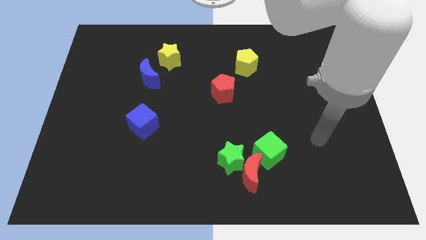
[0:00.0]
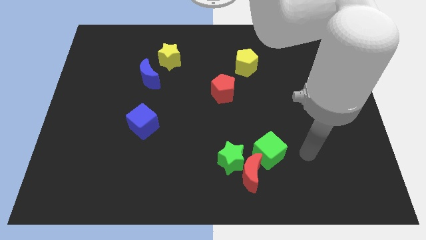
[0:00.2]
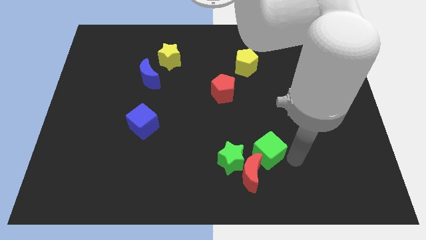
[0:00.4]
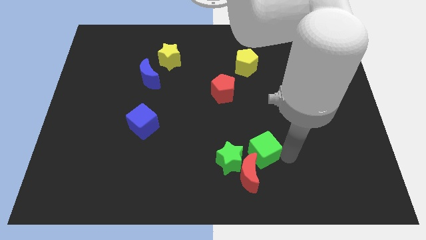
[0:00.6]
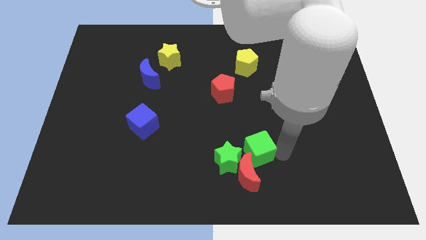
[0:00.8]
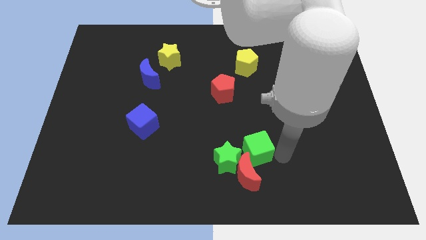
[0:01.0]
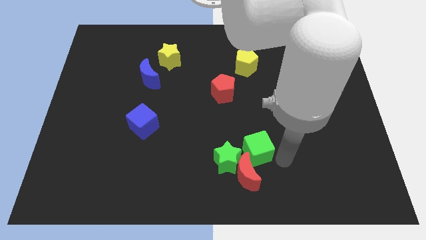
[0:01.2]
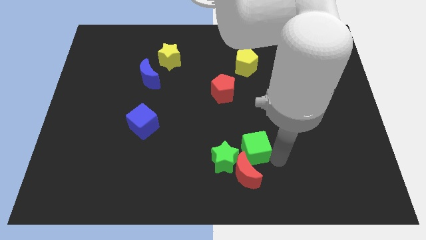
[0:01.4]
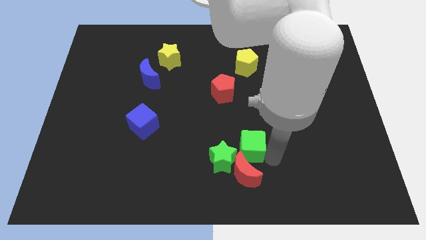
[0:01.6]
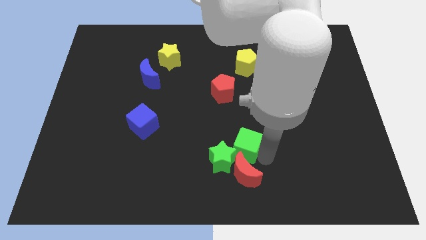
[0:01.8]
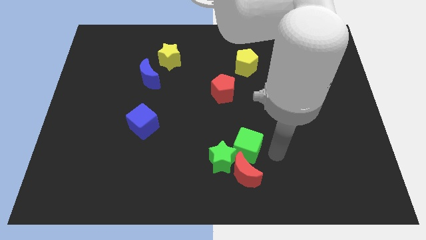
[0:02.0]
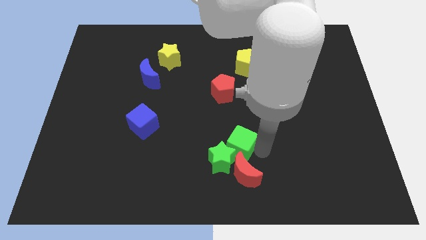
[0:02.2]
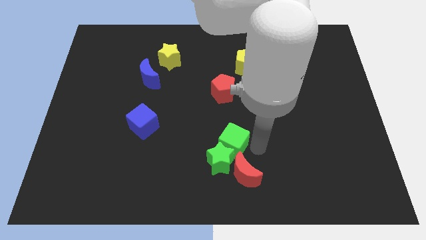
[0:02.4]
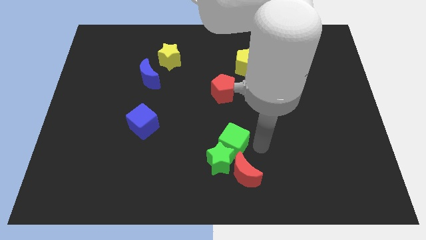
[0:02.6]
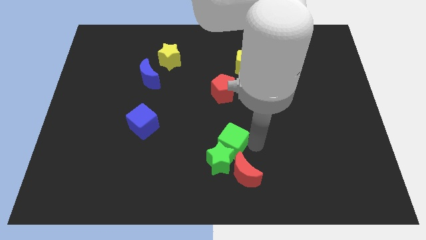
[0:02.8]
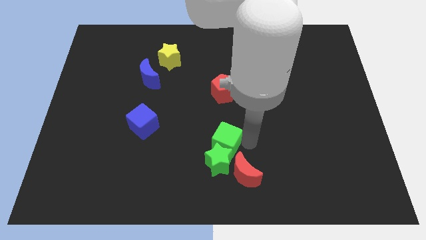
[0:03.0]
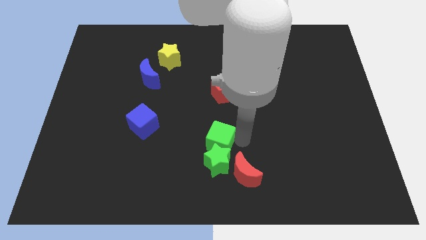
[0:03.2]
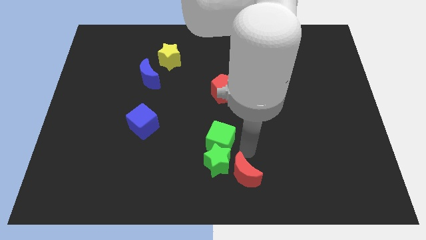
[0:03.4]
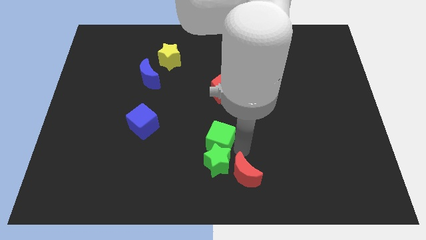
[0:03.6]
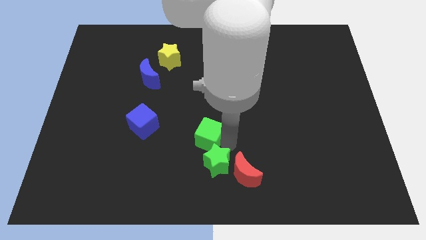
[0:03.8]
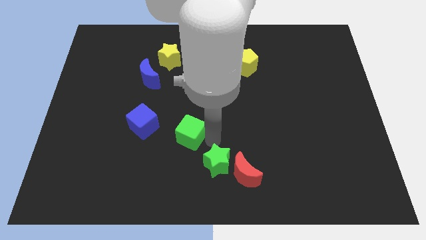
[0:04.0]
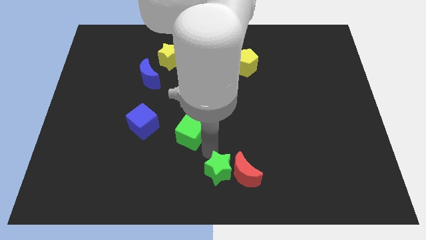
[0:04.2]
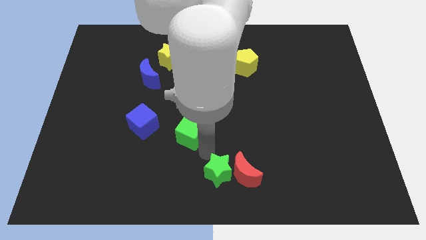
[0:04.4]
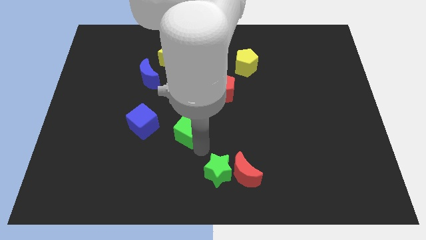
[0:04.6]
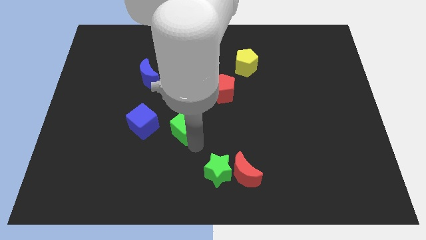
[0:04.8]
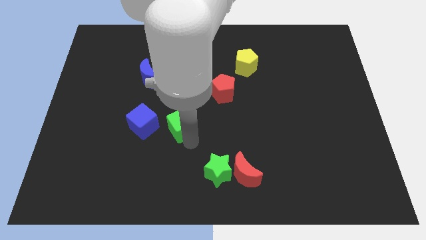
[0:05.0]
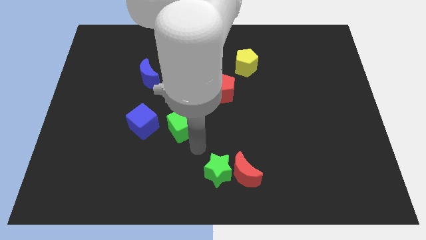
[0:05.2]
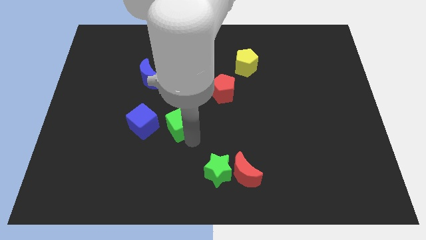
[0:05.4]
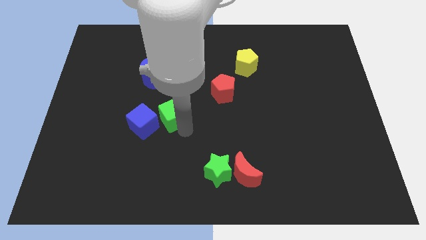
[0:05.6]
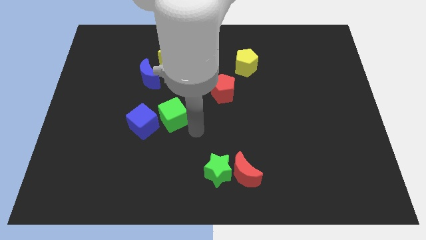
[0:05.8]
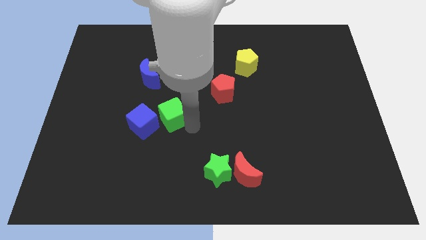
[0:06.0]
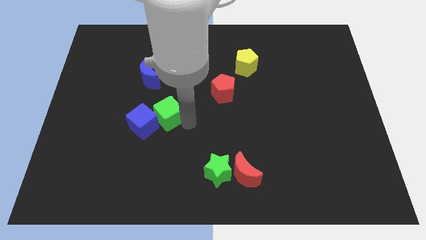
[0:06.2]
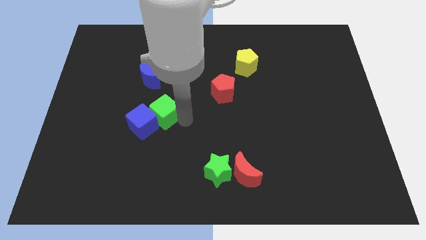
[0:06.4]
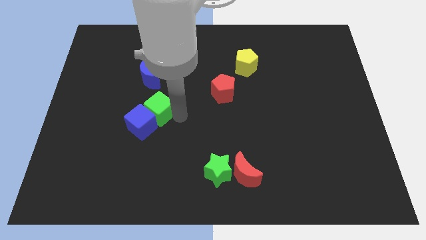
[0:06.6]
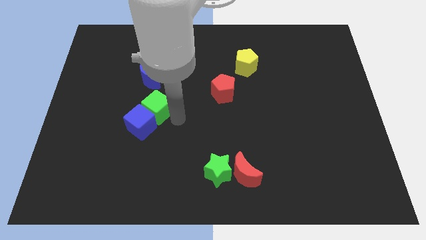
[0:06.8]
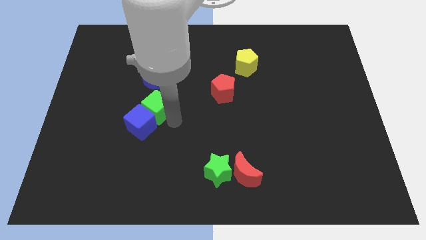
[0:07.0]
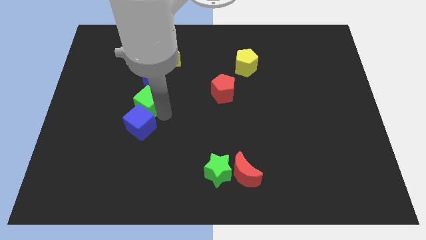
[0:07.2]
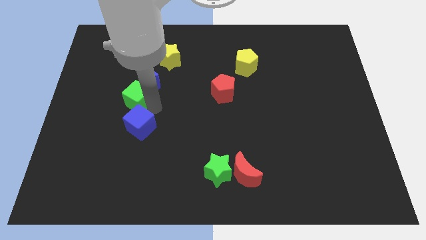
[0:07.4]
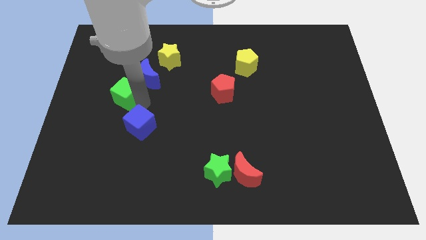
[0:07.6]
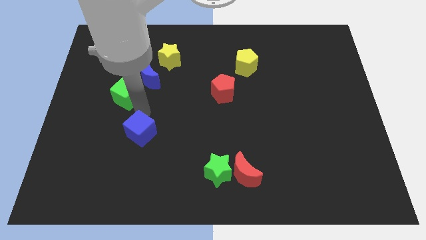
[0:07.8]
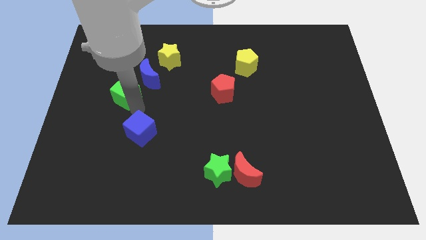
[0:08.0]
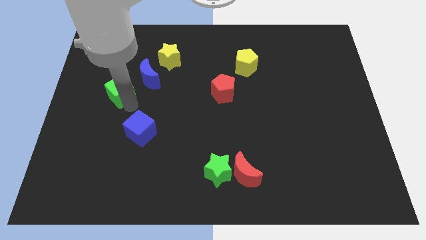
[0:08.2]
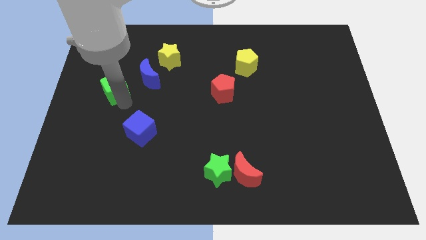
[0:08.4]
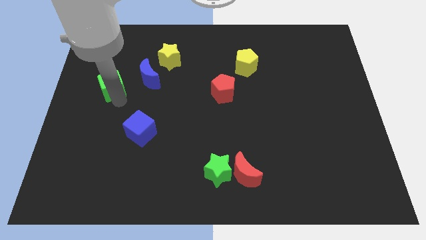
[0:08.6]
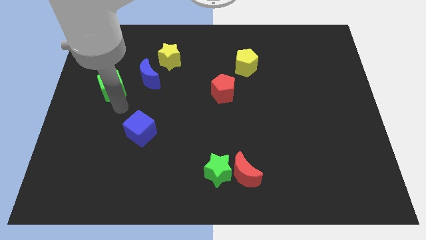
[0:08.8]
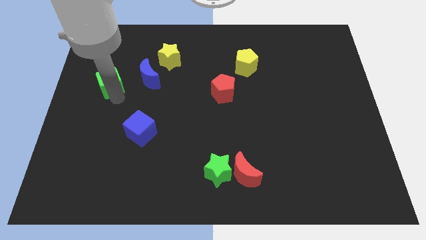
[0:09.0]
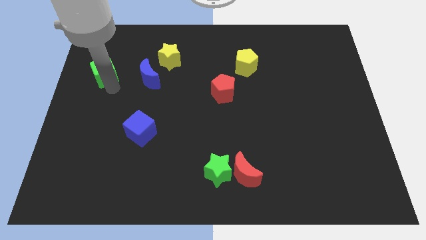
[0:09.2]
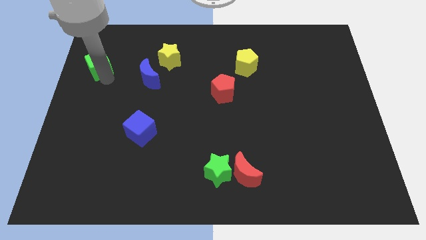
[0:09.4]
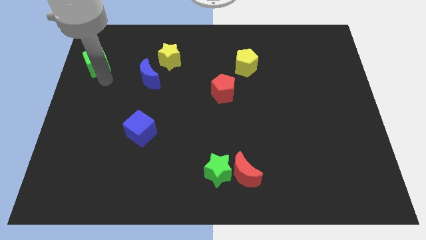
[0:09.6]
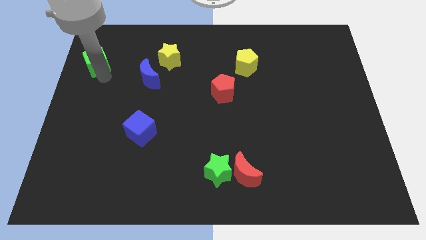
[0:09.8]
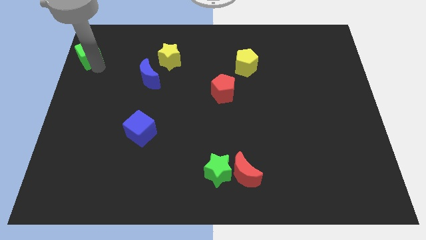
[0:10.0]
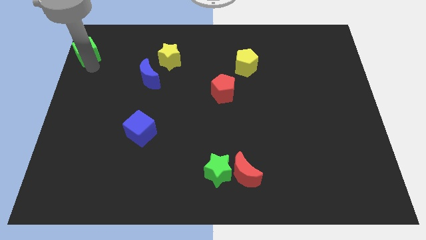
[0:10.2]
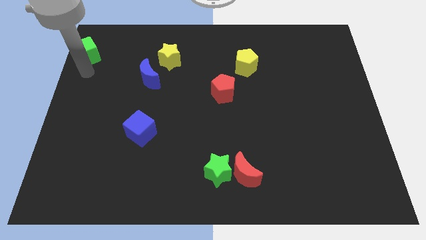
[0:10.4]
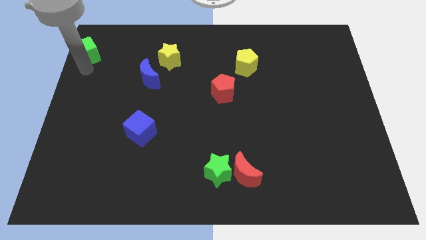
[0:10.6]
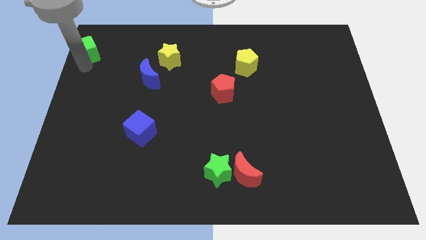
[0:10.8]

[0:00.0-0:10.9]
move the green cube to the upper left corner

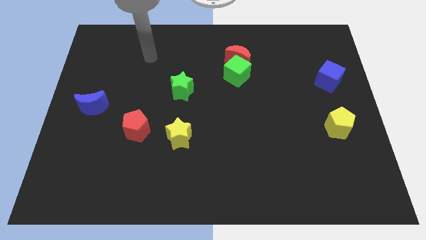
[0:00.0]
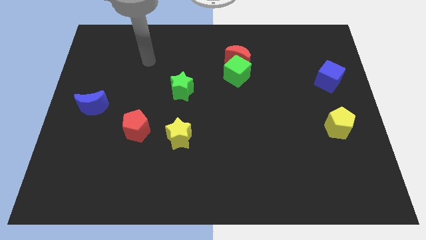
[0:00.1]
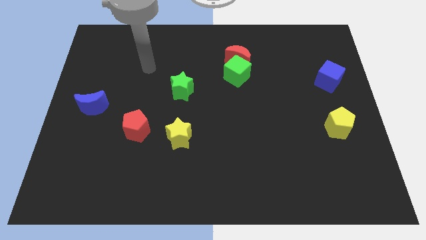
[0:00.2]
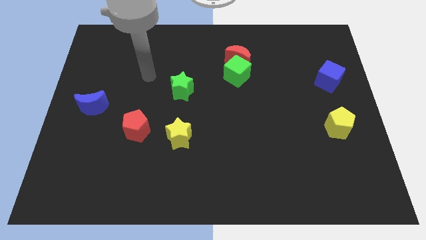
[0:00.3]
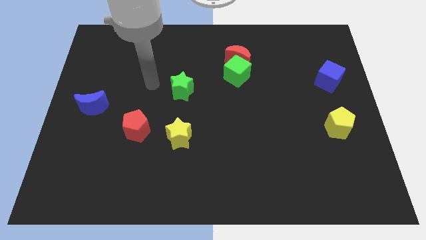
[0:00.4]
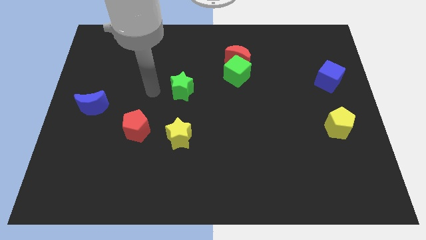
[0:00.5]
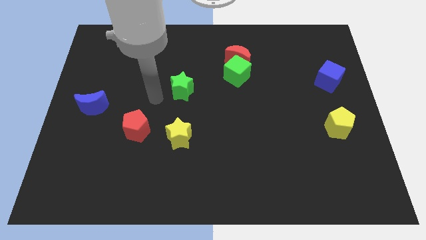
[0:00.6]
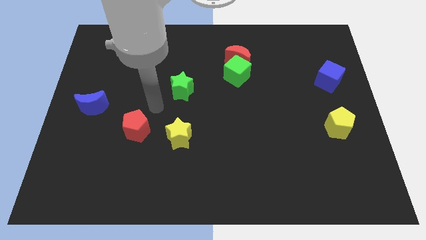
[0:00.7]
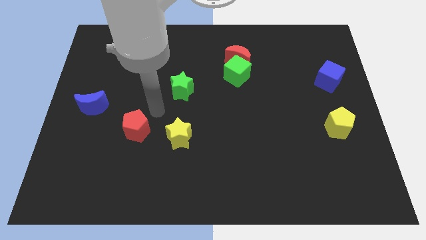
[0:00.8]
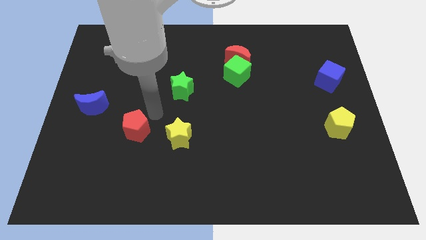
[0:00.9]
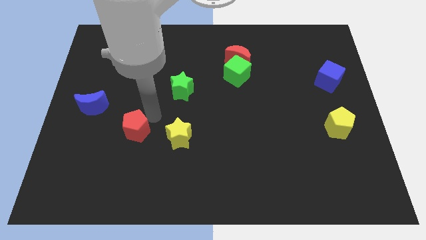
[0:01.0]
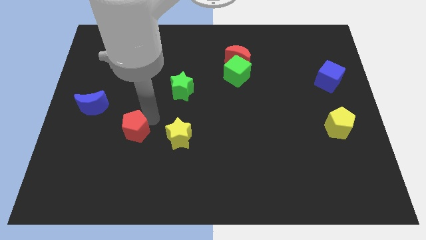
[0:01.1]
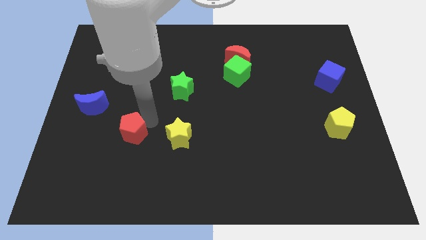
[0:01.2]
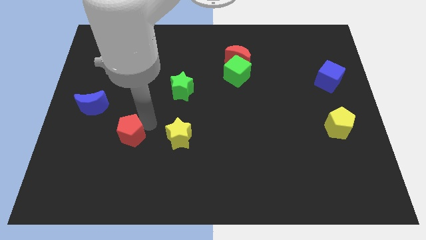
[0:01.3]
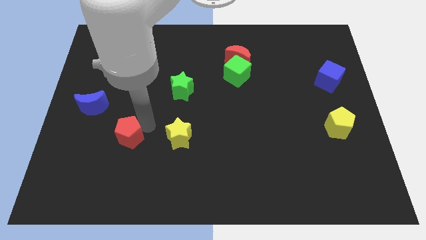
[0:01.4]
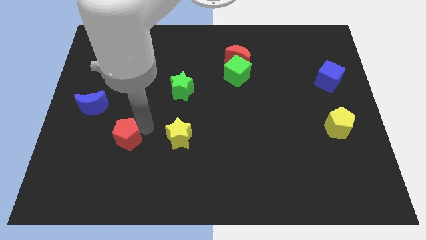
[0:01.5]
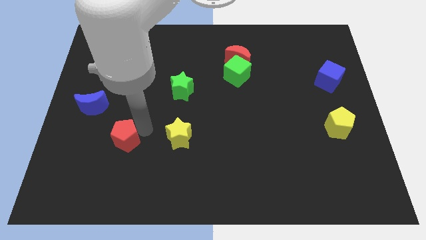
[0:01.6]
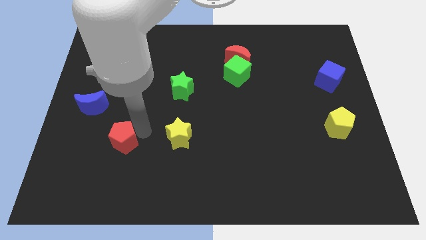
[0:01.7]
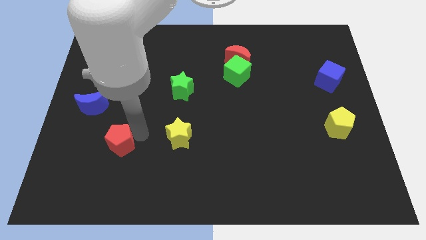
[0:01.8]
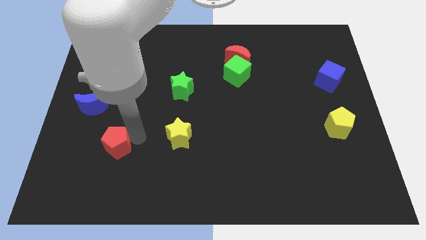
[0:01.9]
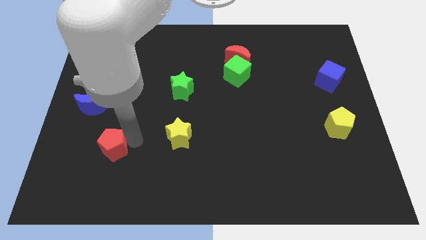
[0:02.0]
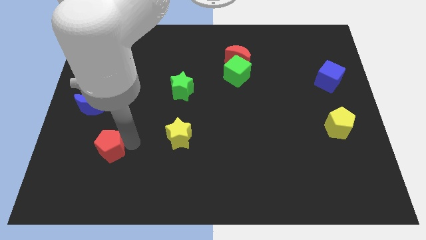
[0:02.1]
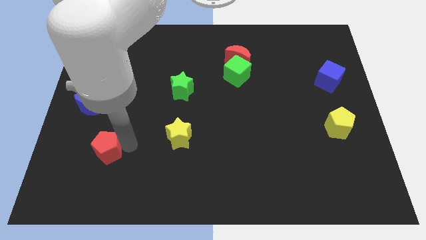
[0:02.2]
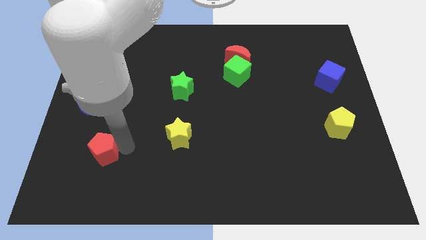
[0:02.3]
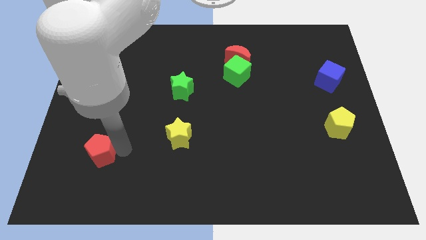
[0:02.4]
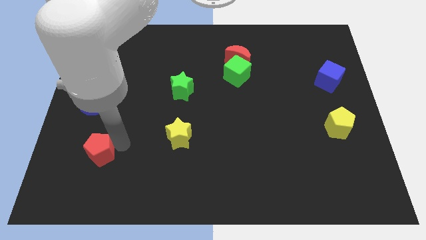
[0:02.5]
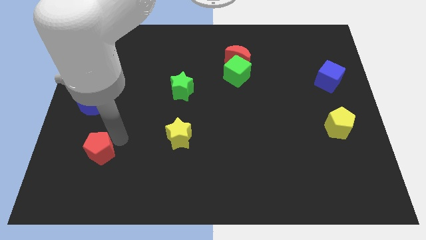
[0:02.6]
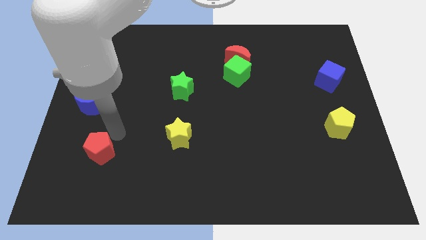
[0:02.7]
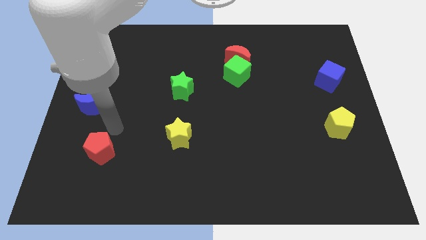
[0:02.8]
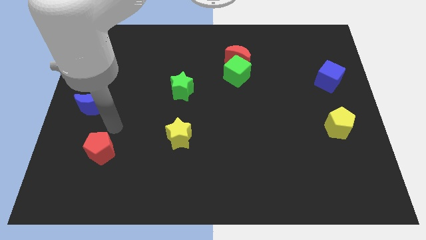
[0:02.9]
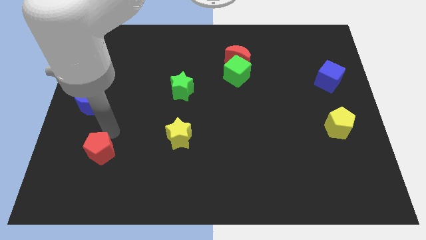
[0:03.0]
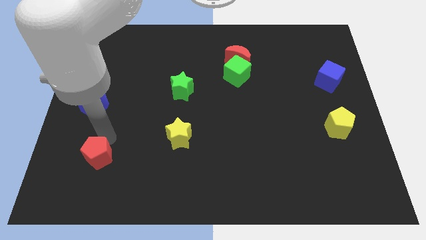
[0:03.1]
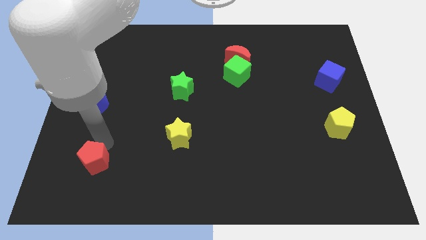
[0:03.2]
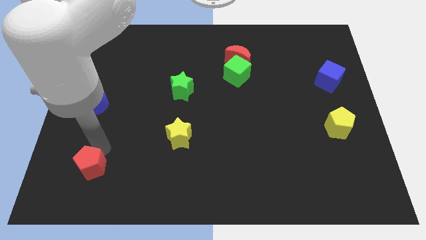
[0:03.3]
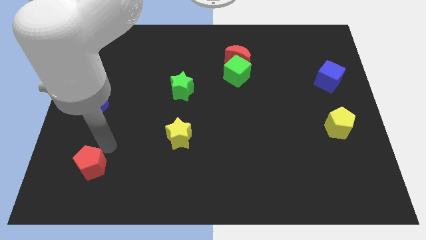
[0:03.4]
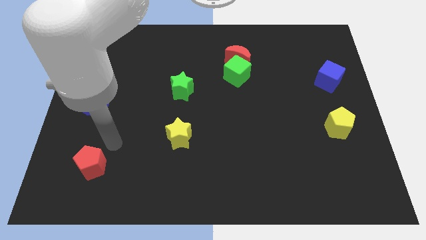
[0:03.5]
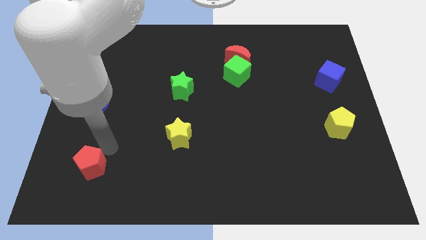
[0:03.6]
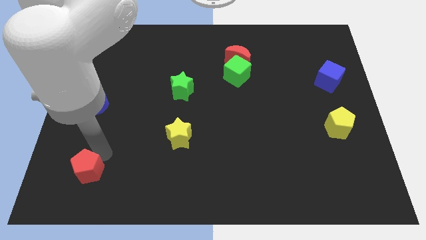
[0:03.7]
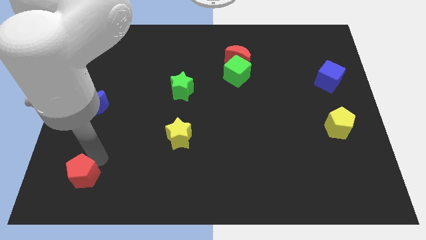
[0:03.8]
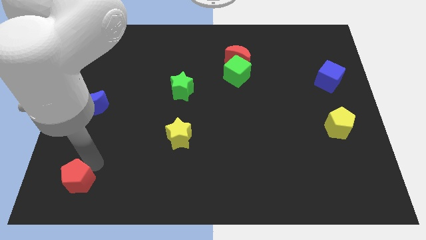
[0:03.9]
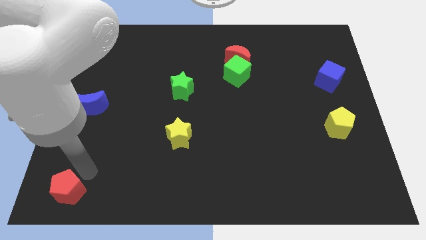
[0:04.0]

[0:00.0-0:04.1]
slide the red pentagon to the bottom left corner
